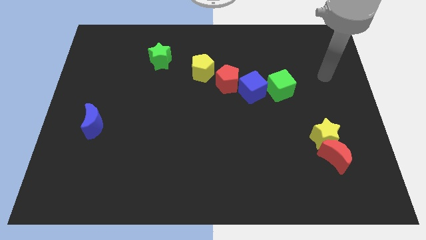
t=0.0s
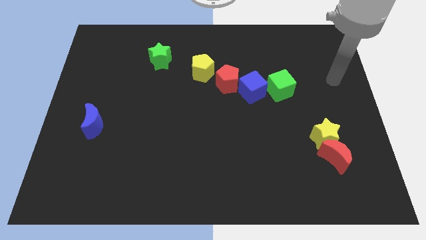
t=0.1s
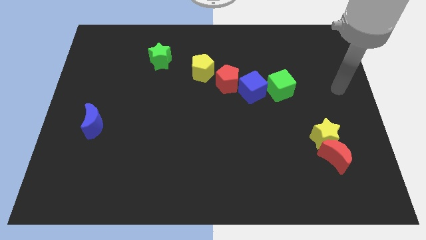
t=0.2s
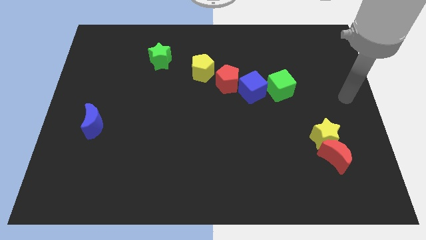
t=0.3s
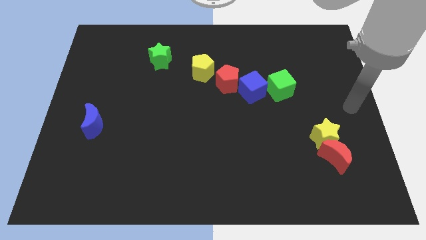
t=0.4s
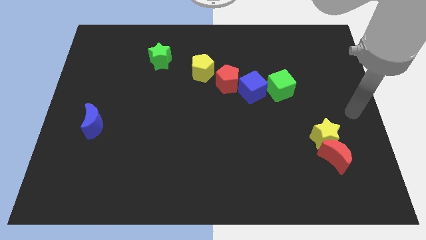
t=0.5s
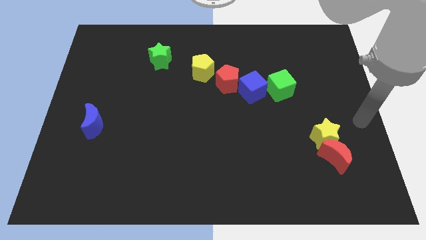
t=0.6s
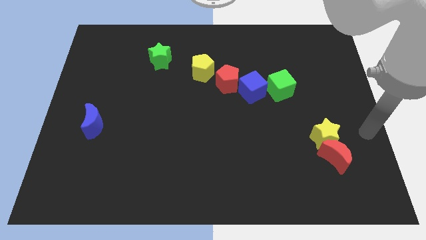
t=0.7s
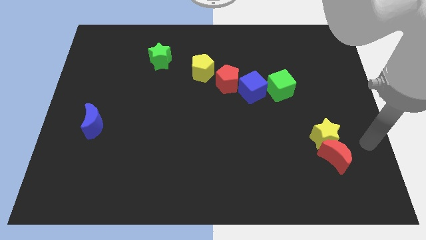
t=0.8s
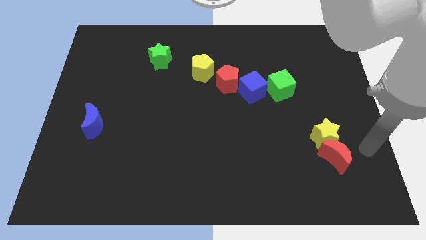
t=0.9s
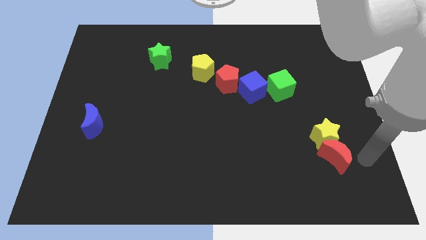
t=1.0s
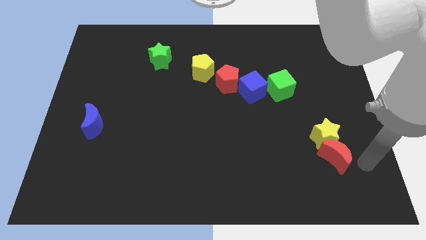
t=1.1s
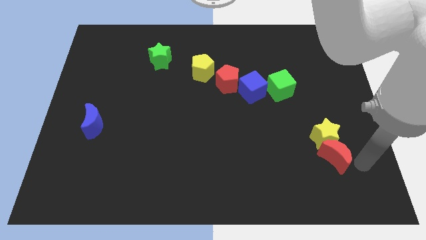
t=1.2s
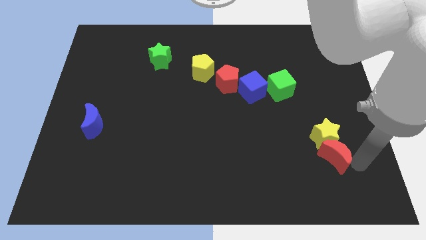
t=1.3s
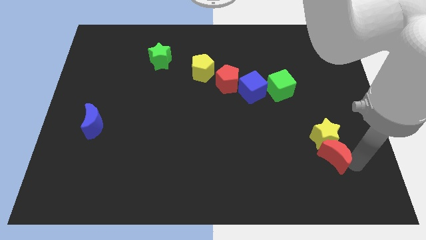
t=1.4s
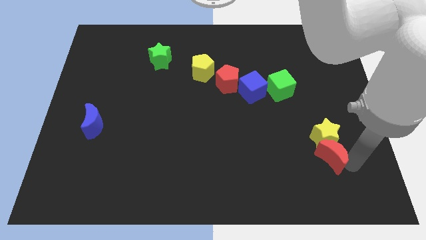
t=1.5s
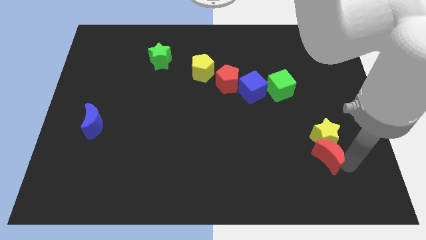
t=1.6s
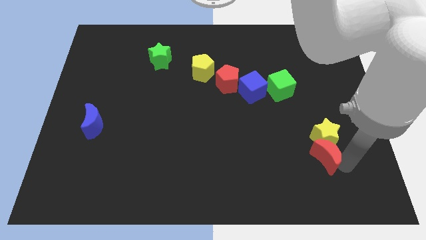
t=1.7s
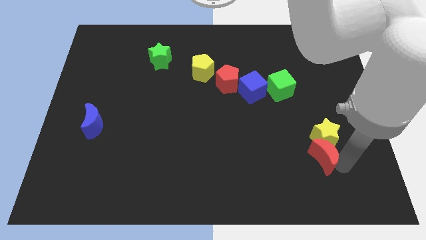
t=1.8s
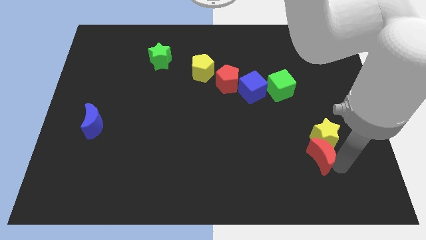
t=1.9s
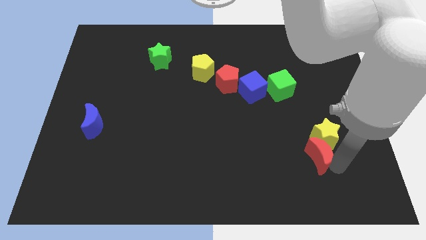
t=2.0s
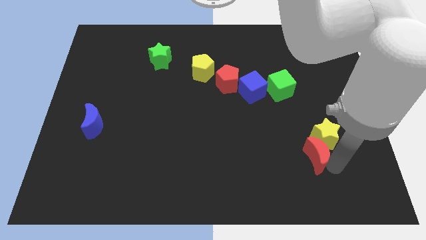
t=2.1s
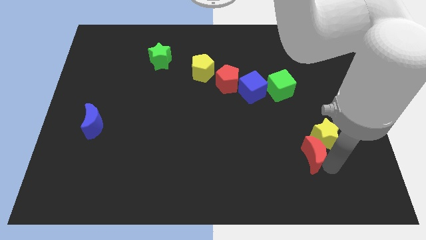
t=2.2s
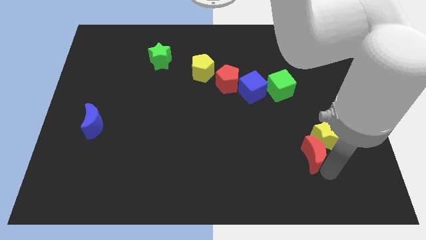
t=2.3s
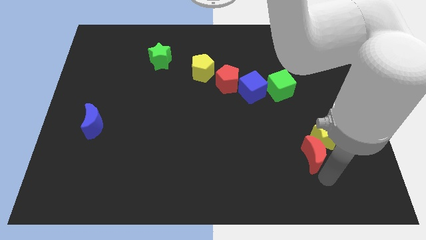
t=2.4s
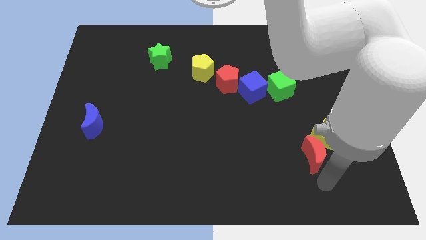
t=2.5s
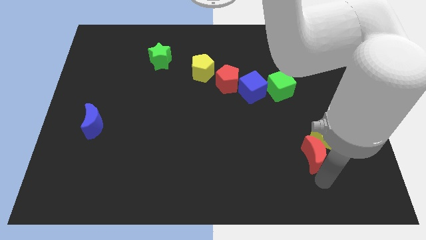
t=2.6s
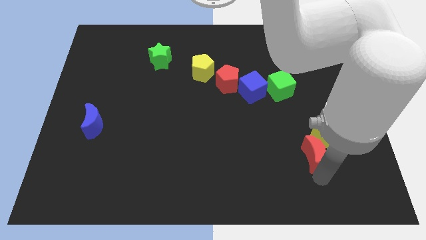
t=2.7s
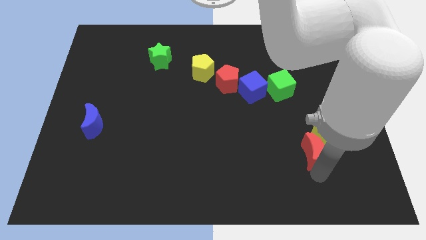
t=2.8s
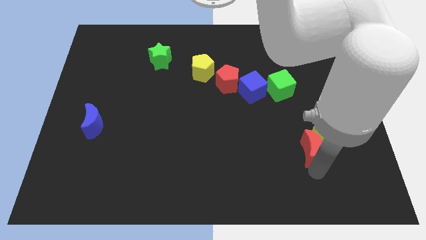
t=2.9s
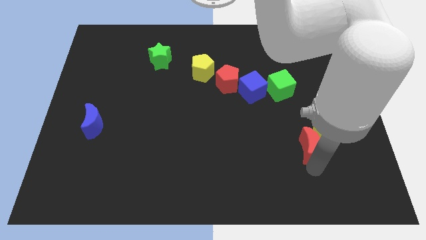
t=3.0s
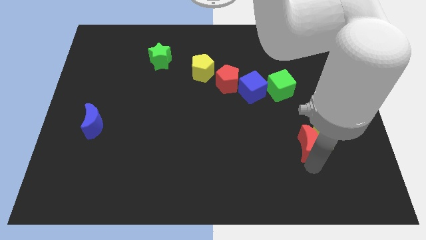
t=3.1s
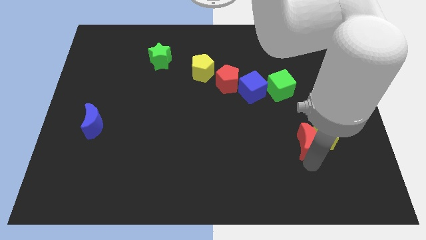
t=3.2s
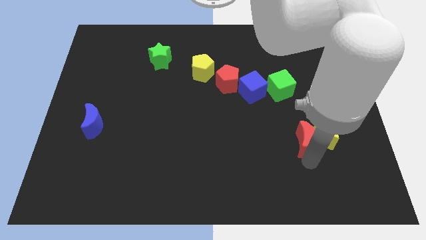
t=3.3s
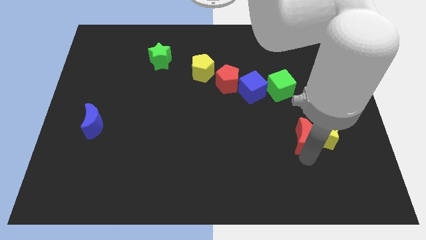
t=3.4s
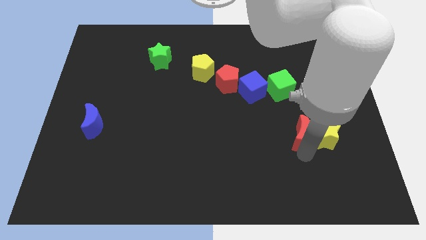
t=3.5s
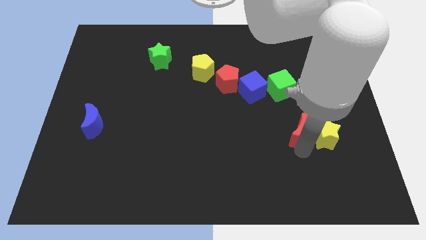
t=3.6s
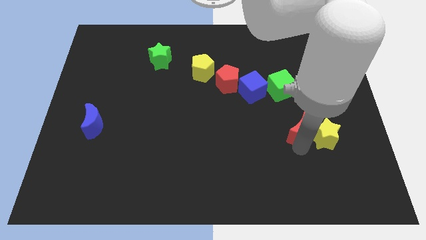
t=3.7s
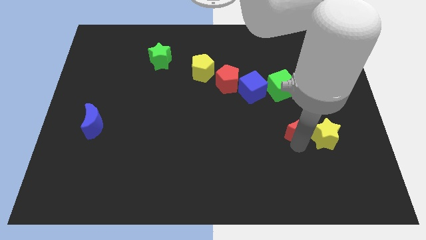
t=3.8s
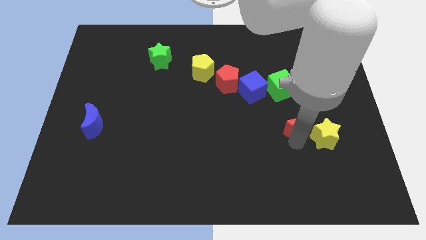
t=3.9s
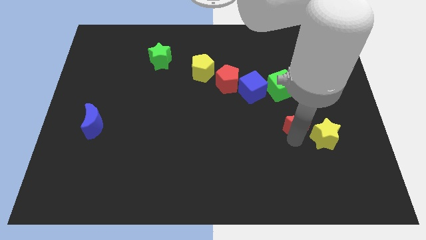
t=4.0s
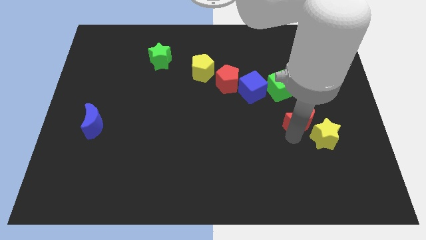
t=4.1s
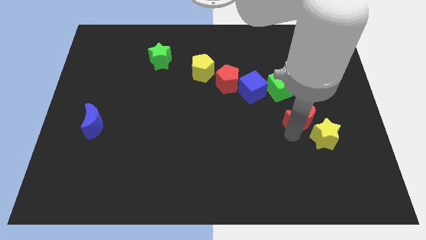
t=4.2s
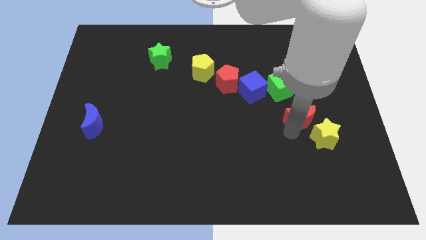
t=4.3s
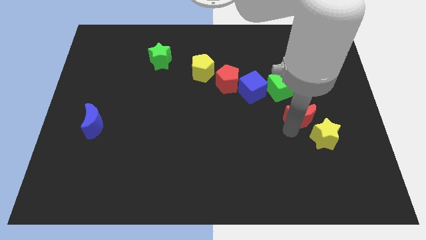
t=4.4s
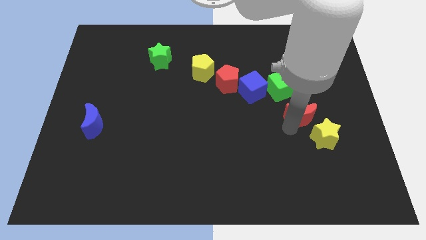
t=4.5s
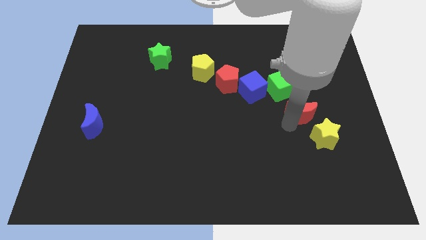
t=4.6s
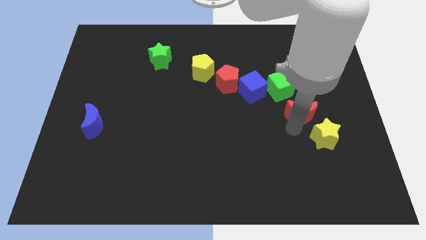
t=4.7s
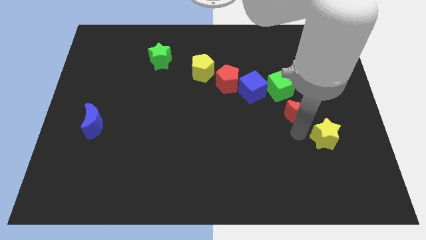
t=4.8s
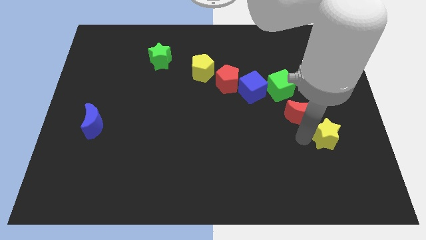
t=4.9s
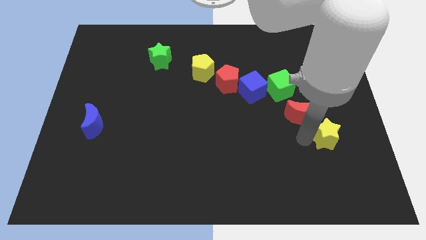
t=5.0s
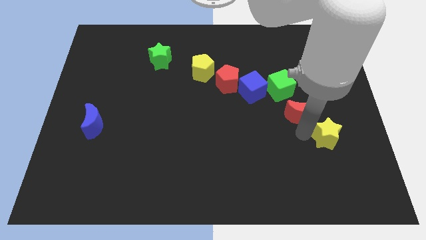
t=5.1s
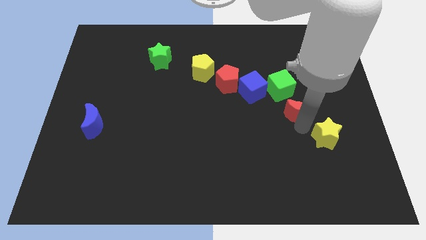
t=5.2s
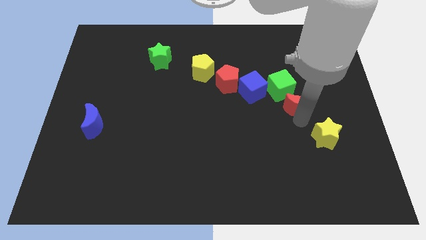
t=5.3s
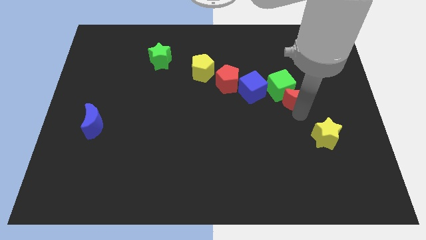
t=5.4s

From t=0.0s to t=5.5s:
put the red moon just right of the blue cube

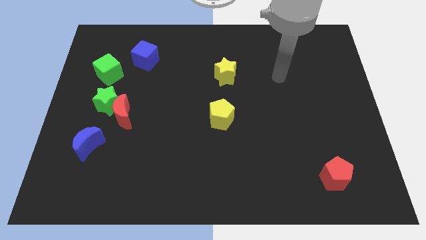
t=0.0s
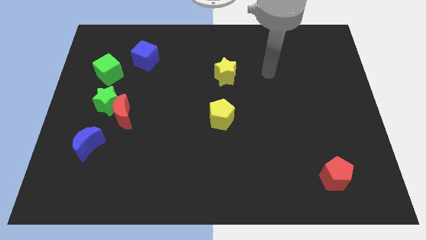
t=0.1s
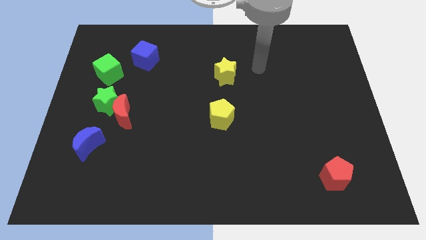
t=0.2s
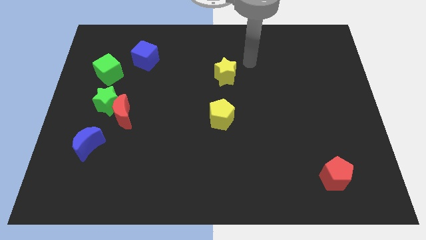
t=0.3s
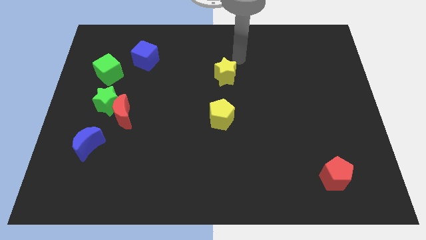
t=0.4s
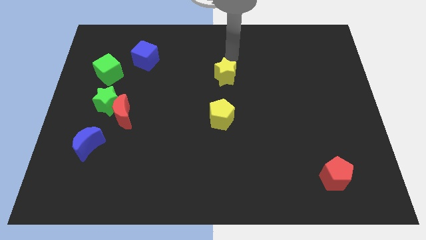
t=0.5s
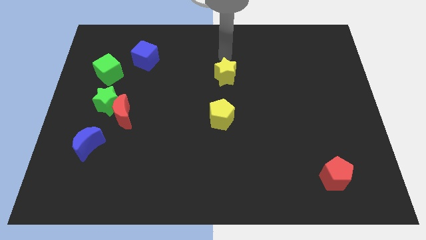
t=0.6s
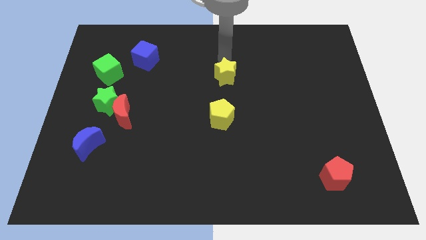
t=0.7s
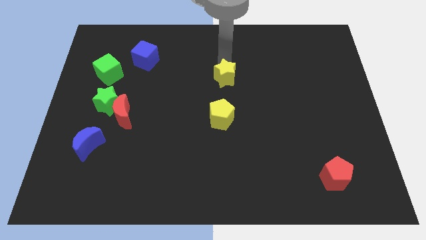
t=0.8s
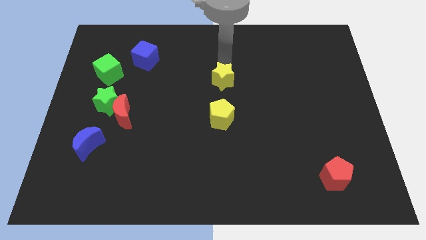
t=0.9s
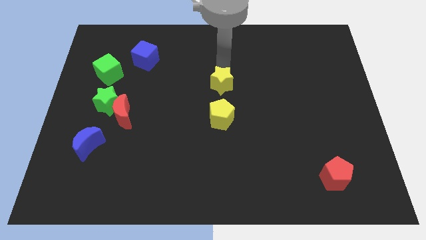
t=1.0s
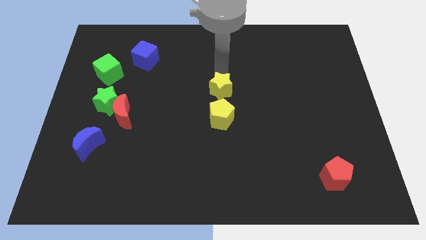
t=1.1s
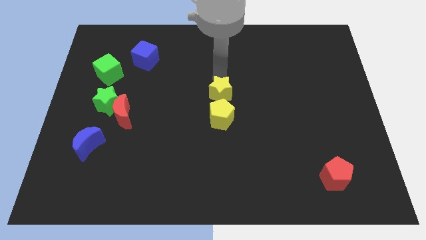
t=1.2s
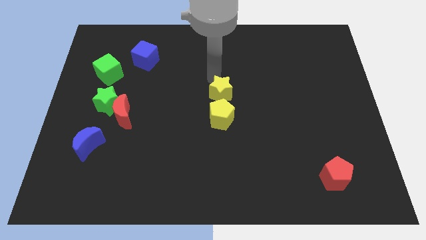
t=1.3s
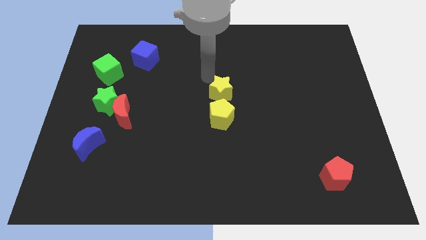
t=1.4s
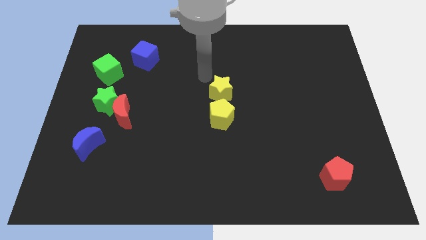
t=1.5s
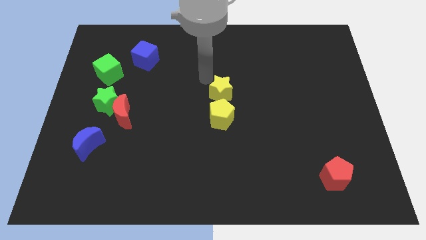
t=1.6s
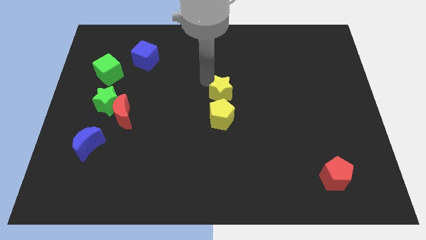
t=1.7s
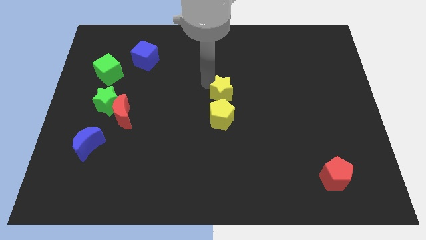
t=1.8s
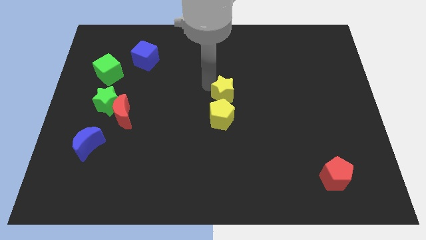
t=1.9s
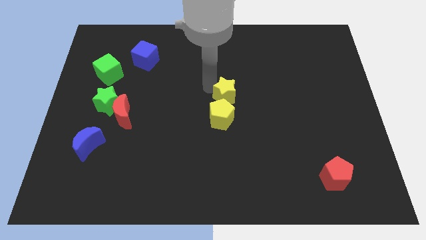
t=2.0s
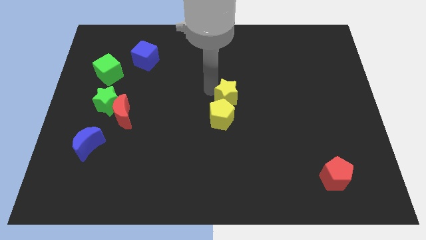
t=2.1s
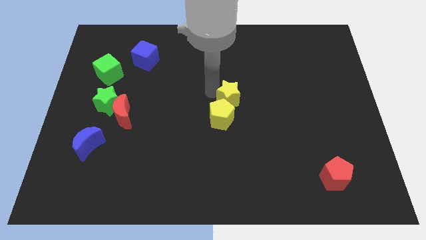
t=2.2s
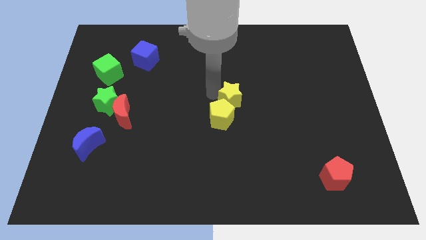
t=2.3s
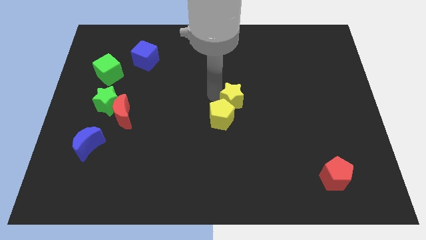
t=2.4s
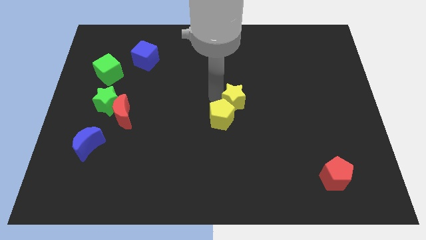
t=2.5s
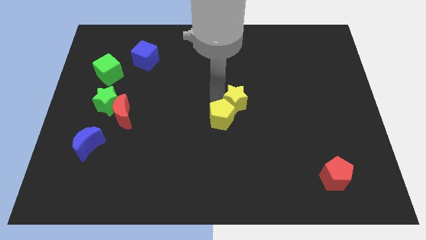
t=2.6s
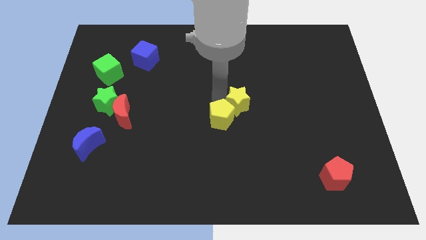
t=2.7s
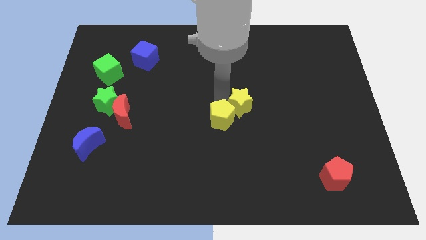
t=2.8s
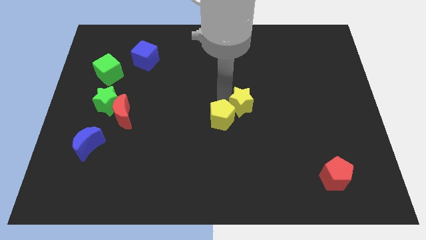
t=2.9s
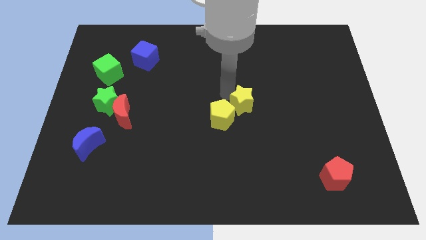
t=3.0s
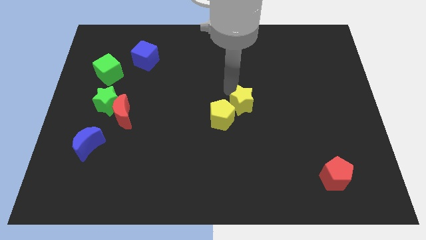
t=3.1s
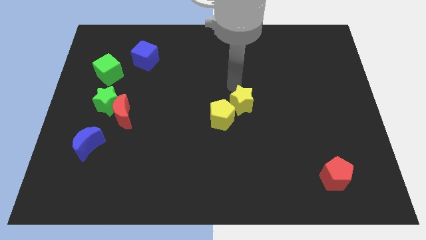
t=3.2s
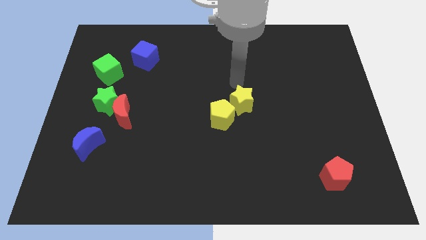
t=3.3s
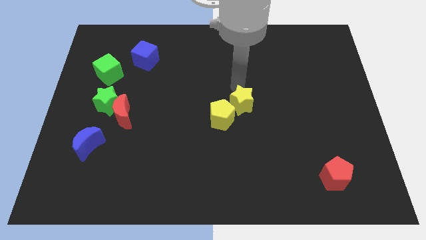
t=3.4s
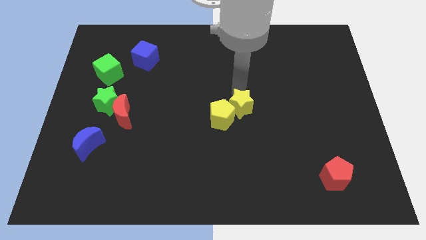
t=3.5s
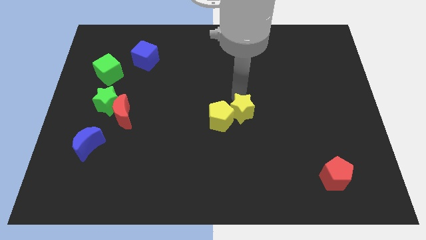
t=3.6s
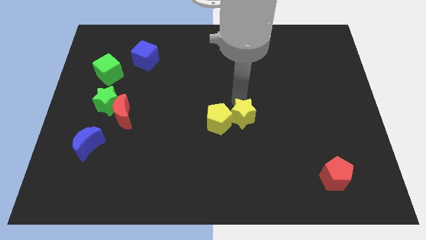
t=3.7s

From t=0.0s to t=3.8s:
move the yellow star to the bottom right side of the yellow pentagon
